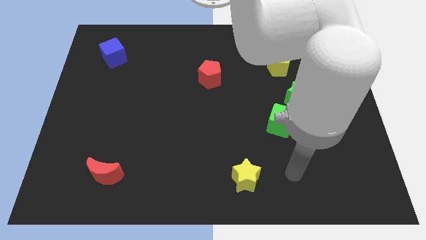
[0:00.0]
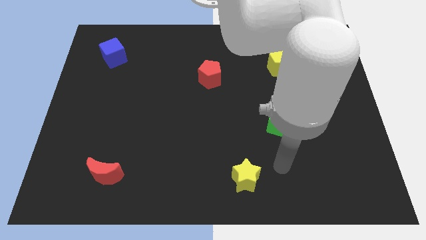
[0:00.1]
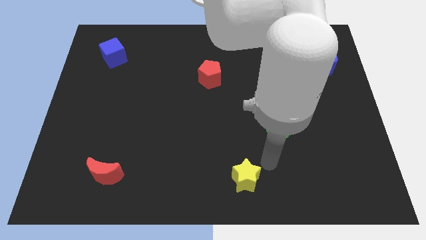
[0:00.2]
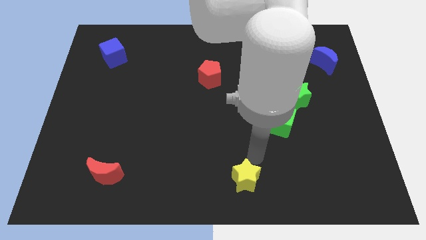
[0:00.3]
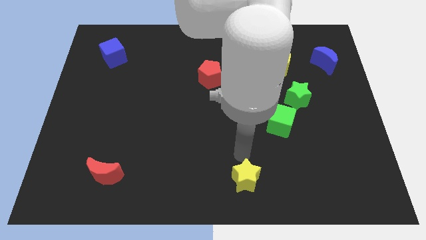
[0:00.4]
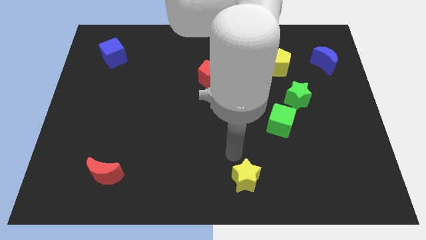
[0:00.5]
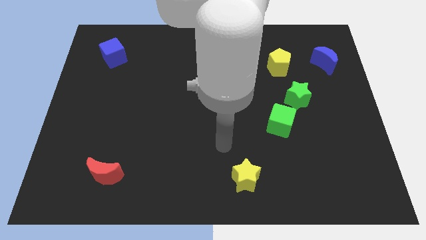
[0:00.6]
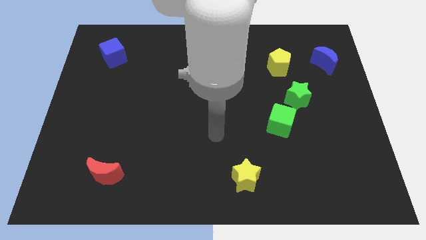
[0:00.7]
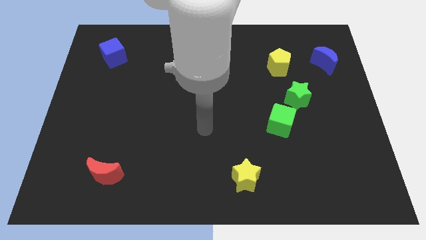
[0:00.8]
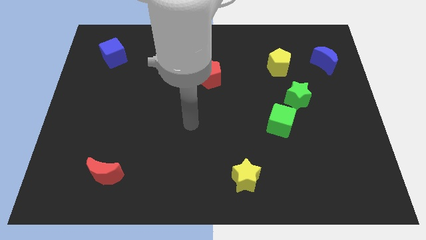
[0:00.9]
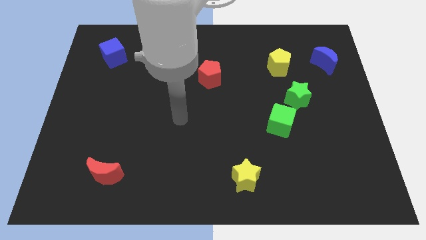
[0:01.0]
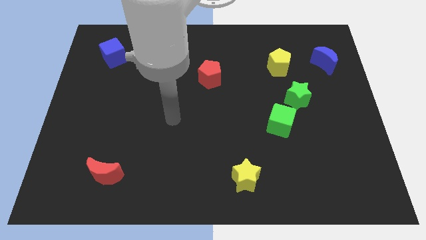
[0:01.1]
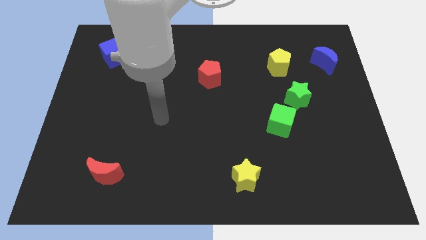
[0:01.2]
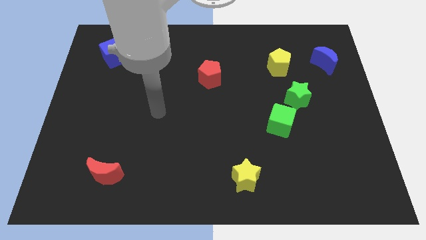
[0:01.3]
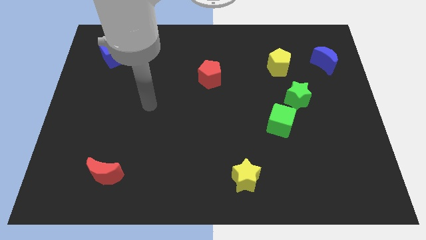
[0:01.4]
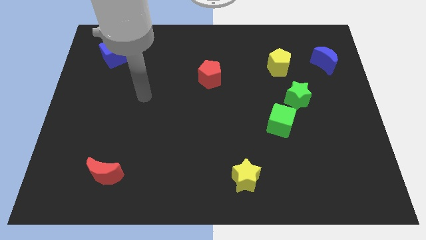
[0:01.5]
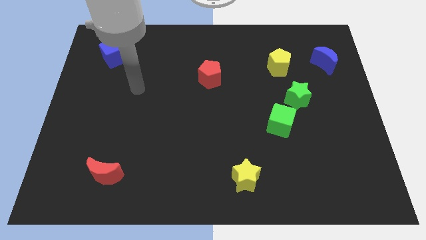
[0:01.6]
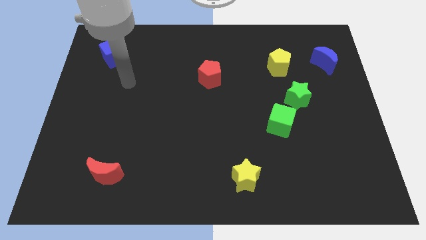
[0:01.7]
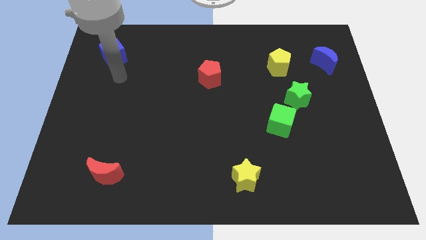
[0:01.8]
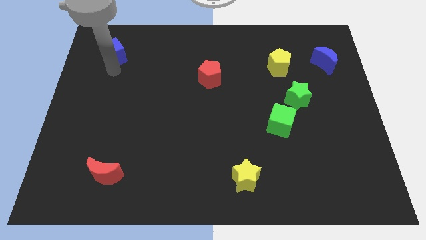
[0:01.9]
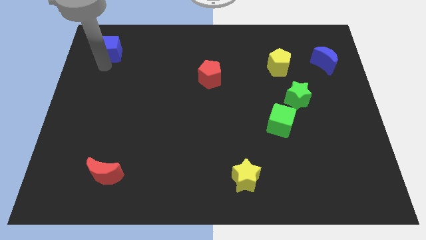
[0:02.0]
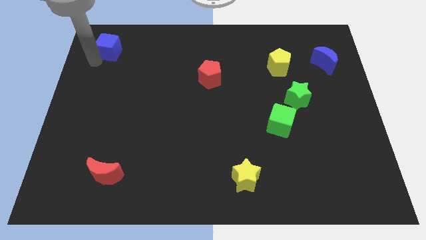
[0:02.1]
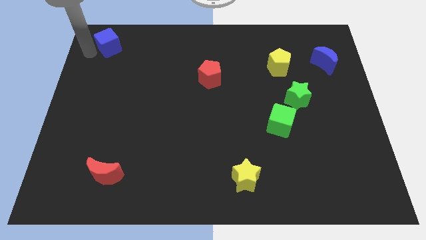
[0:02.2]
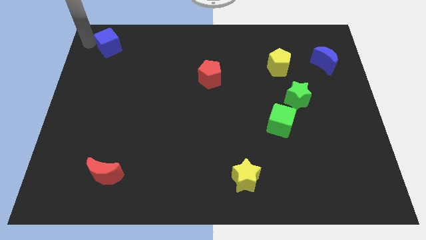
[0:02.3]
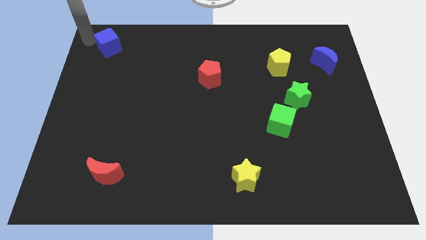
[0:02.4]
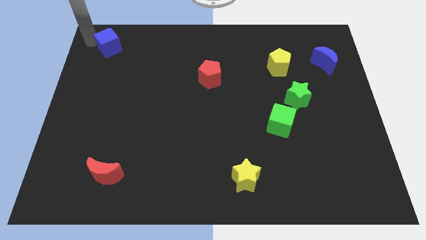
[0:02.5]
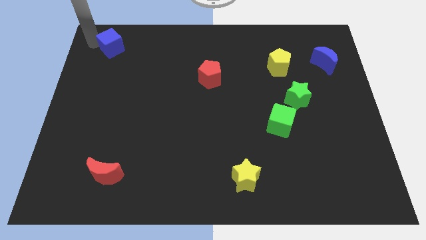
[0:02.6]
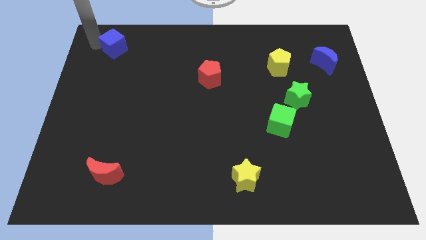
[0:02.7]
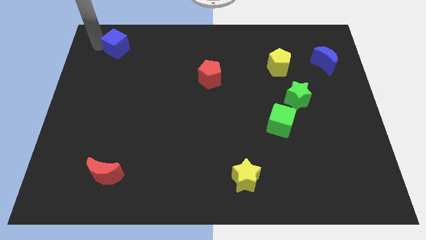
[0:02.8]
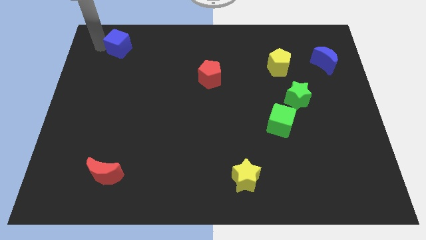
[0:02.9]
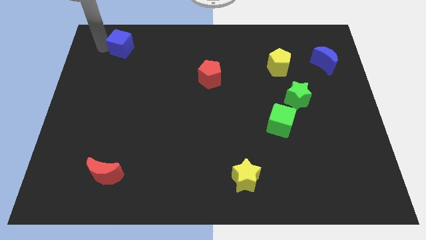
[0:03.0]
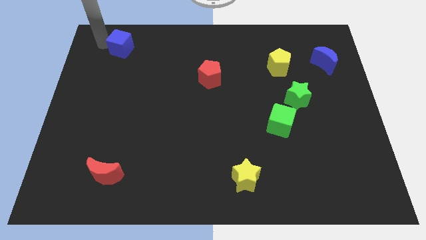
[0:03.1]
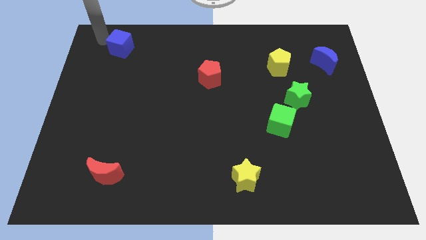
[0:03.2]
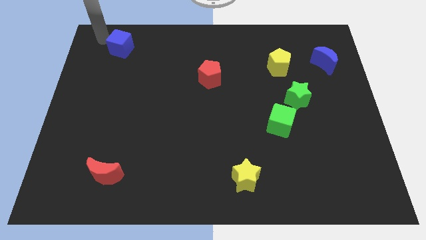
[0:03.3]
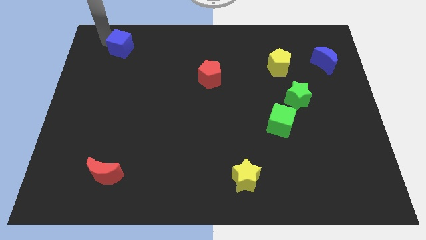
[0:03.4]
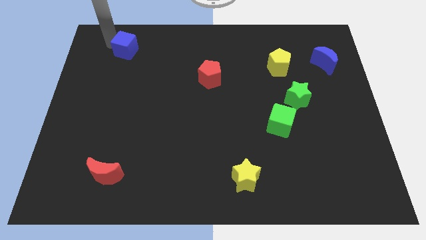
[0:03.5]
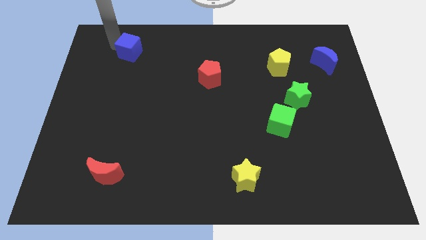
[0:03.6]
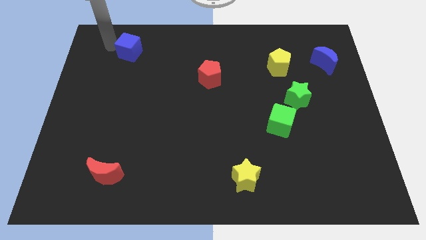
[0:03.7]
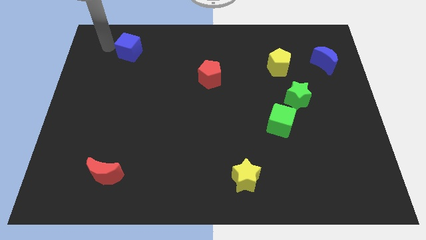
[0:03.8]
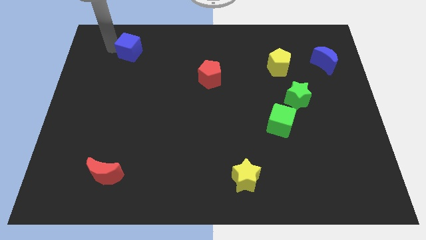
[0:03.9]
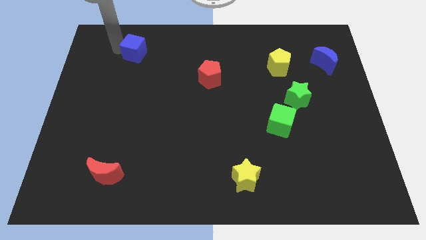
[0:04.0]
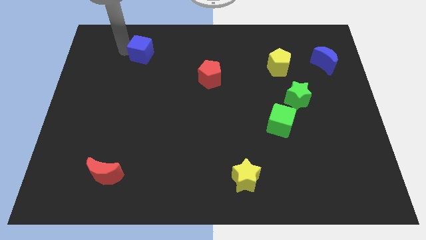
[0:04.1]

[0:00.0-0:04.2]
slide the blue cube slightly right

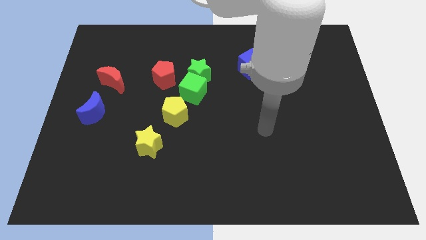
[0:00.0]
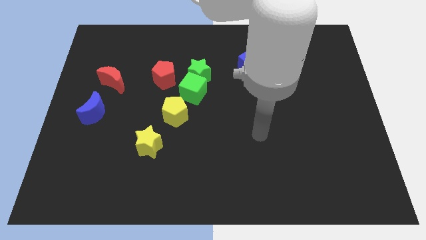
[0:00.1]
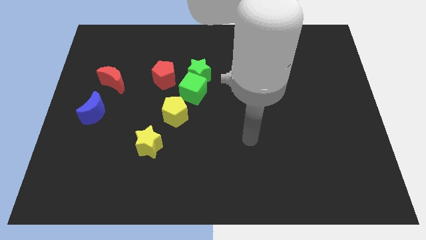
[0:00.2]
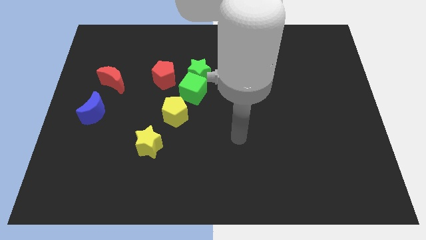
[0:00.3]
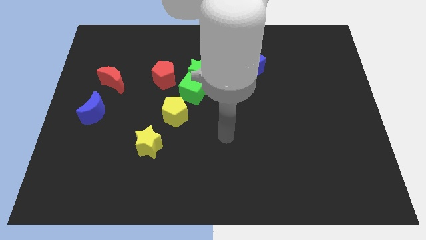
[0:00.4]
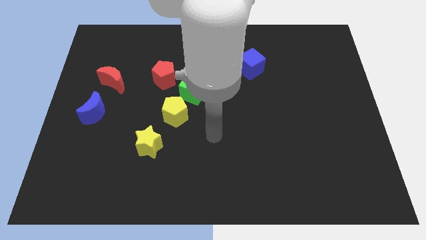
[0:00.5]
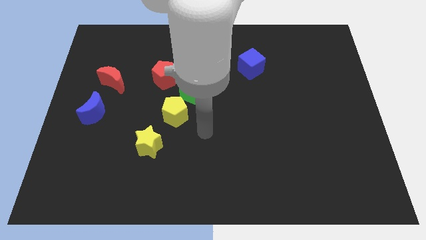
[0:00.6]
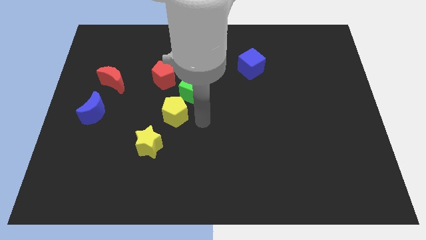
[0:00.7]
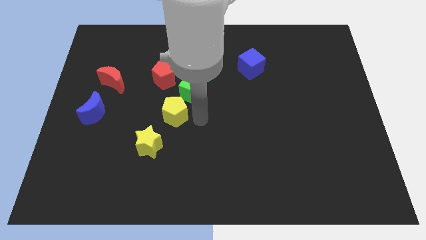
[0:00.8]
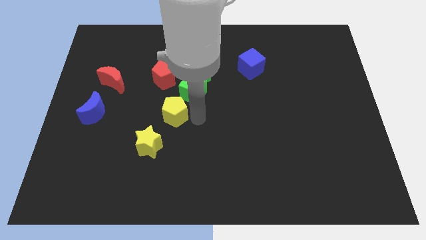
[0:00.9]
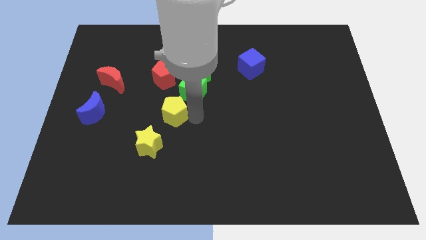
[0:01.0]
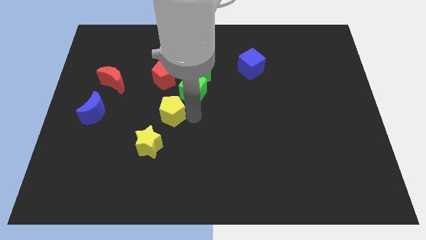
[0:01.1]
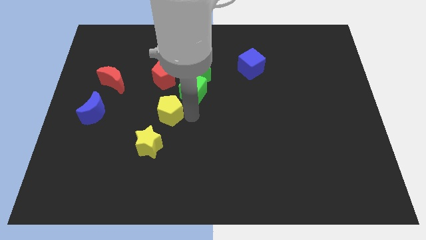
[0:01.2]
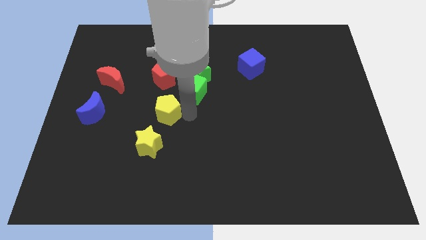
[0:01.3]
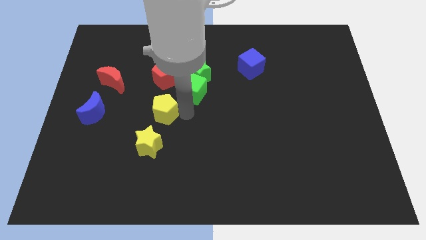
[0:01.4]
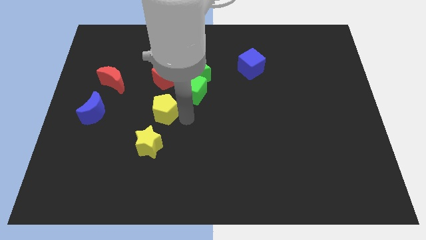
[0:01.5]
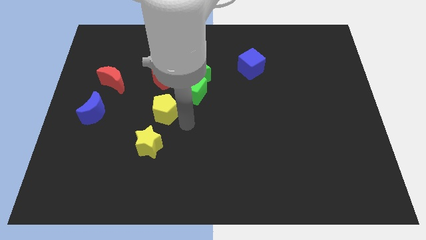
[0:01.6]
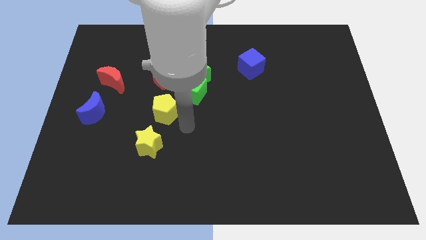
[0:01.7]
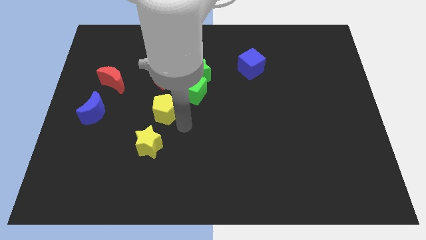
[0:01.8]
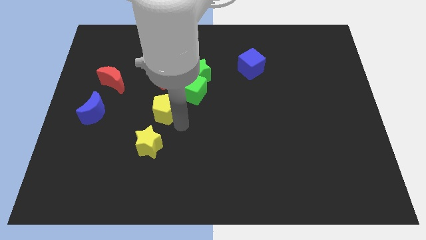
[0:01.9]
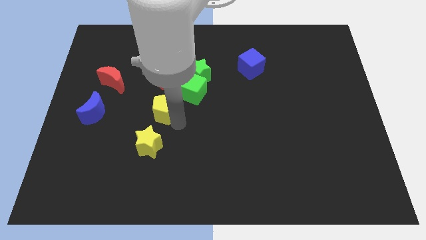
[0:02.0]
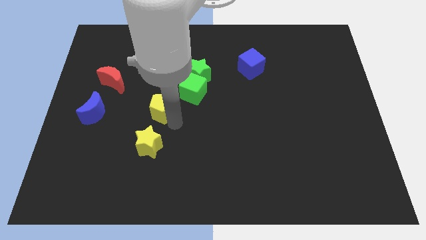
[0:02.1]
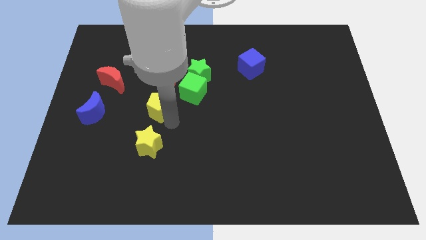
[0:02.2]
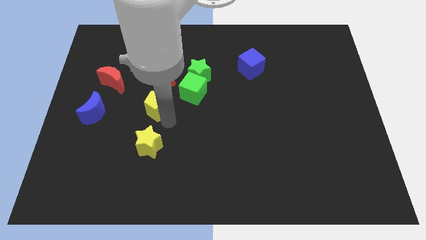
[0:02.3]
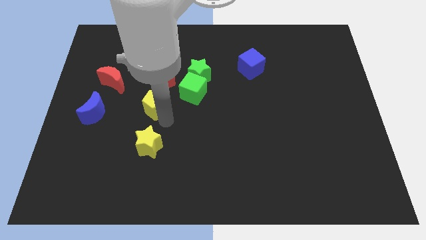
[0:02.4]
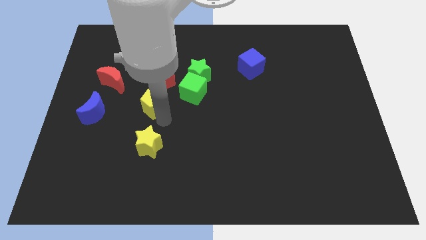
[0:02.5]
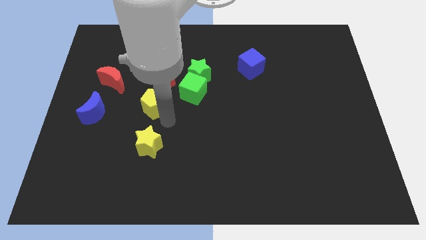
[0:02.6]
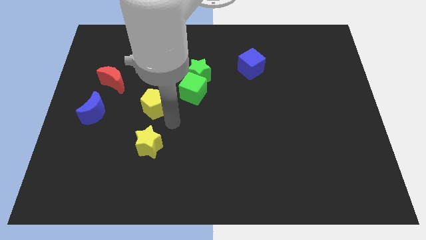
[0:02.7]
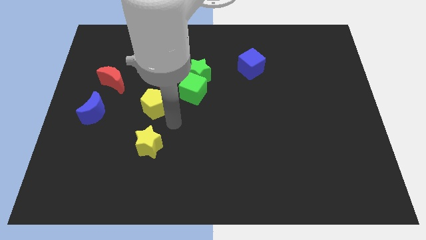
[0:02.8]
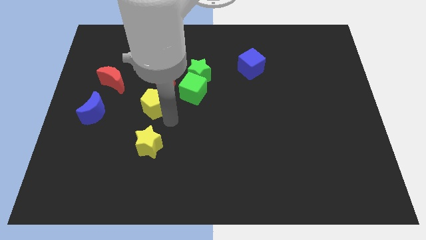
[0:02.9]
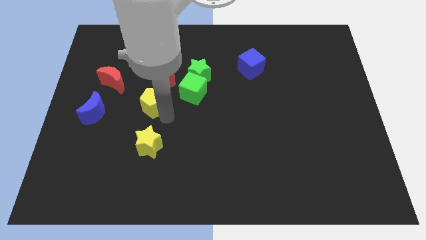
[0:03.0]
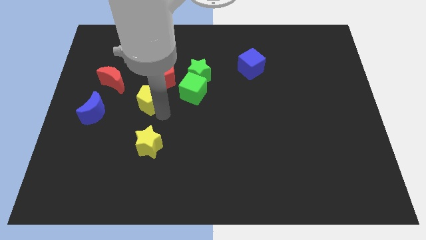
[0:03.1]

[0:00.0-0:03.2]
slide the yellow pentagon up and to the left diagonally somewhat

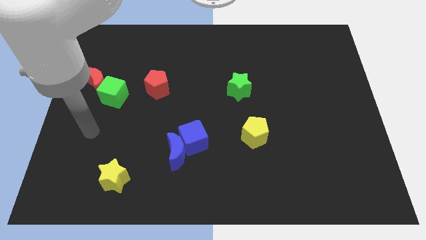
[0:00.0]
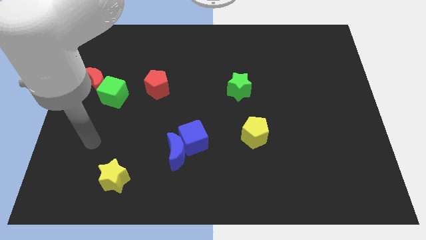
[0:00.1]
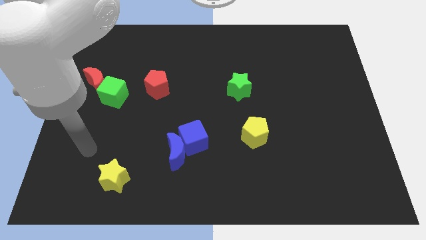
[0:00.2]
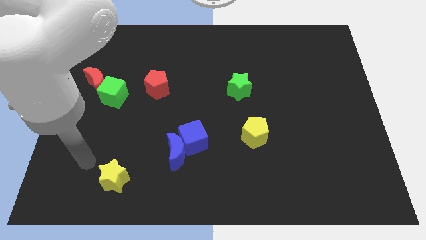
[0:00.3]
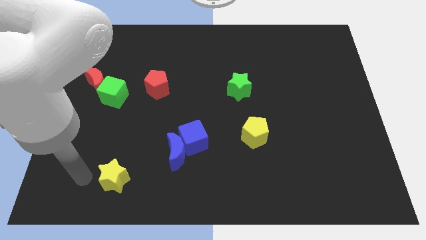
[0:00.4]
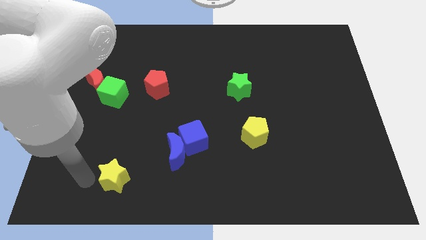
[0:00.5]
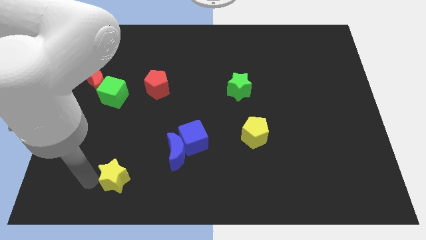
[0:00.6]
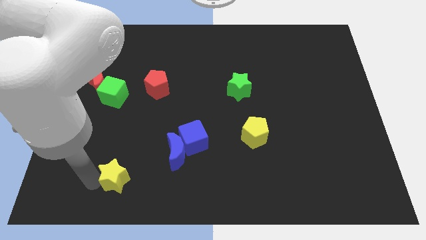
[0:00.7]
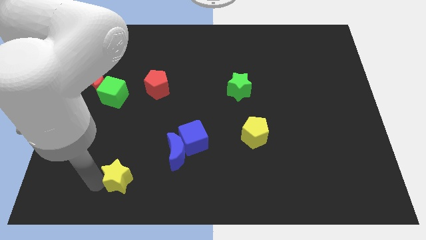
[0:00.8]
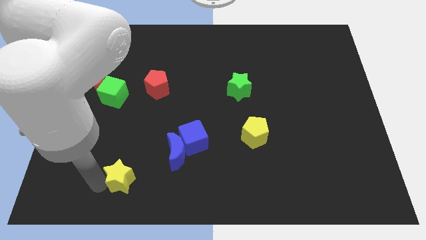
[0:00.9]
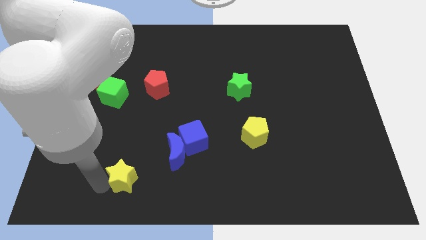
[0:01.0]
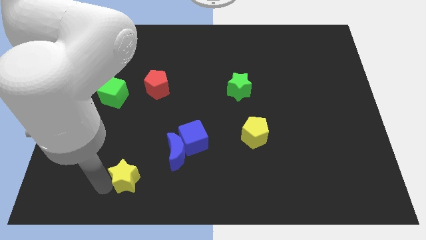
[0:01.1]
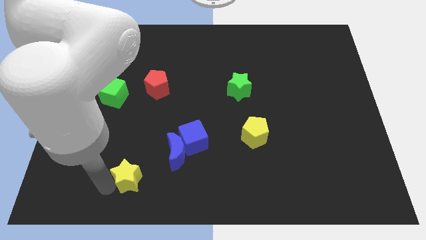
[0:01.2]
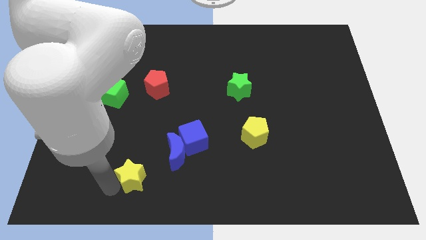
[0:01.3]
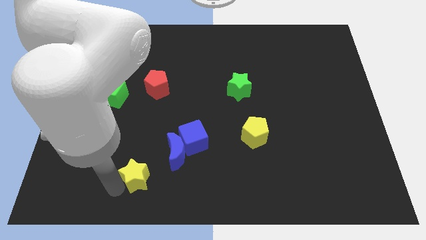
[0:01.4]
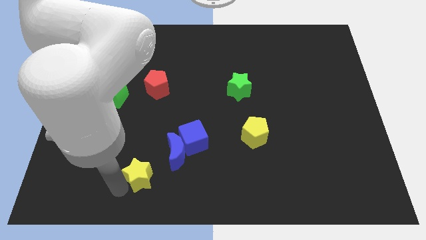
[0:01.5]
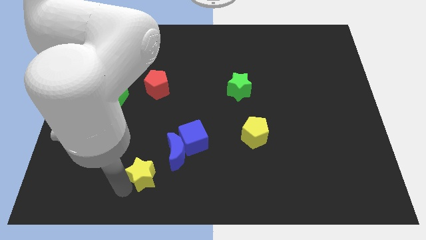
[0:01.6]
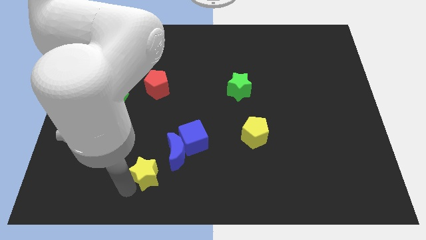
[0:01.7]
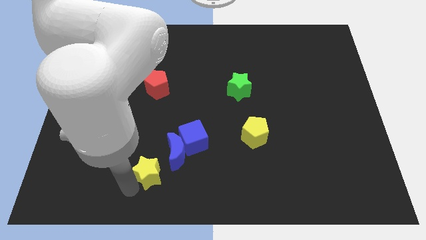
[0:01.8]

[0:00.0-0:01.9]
slide the yellow star a little right
